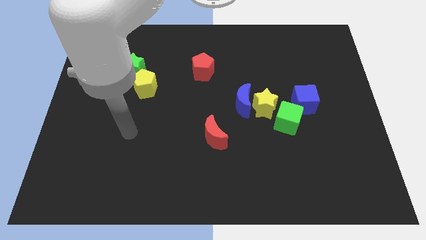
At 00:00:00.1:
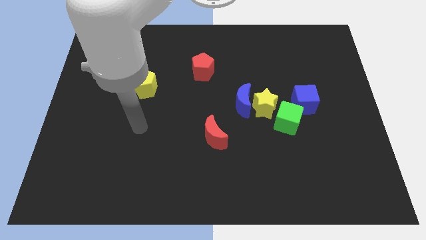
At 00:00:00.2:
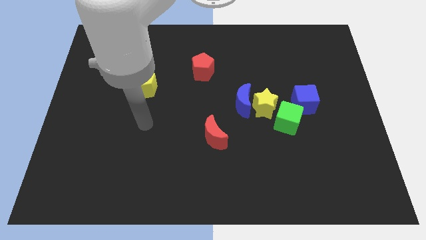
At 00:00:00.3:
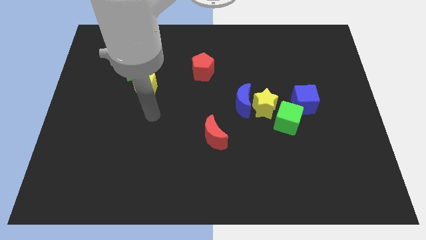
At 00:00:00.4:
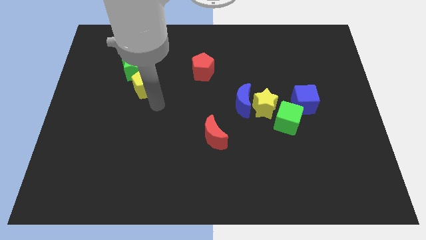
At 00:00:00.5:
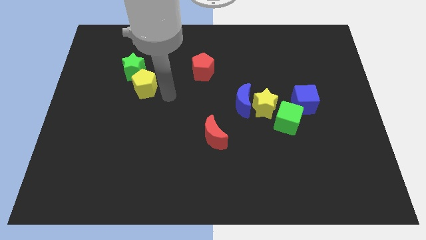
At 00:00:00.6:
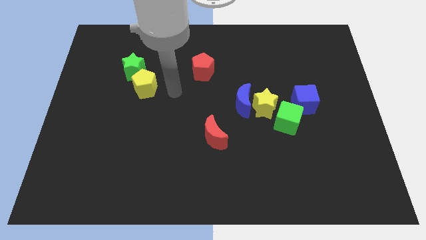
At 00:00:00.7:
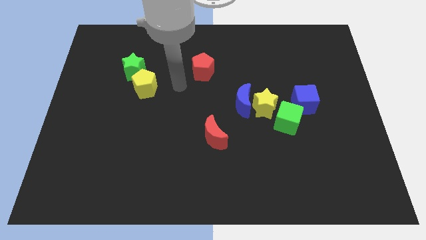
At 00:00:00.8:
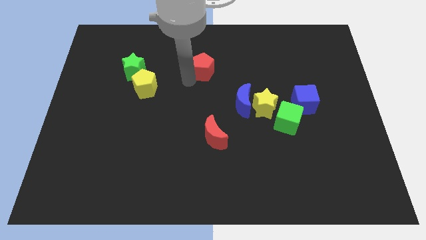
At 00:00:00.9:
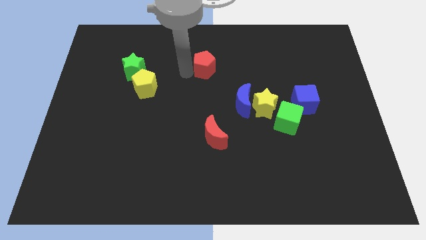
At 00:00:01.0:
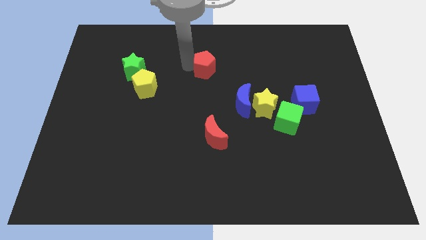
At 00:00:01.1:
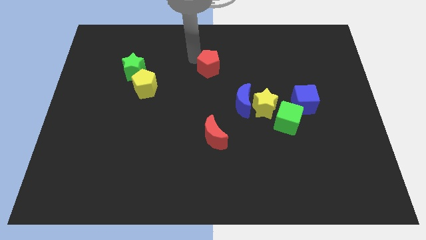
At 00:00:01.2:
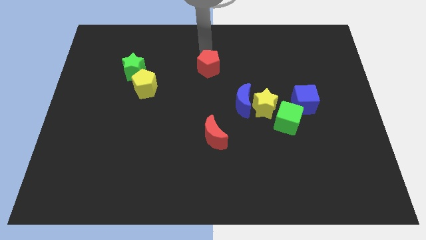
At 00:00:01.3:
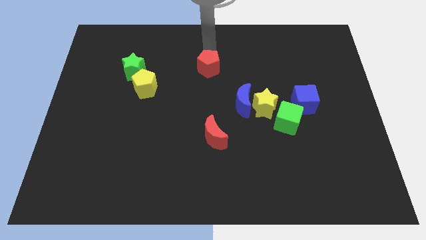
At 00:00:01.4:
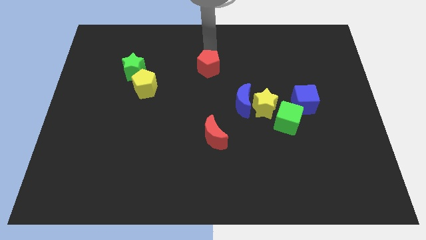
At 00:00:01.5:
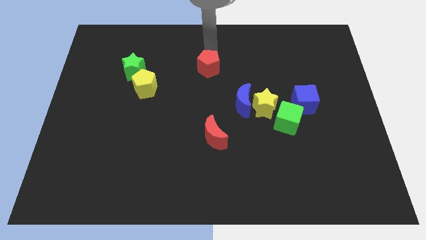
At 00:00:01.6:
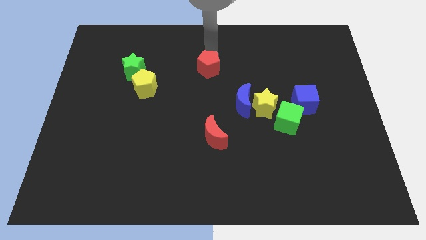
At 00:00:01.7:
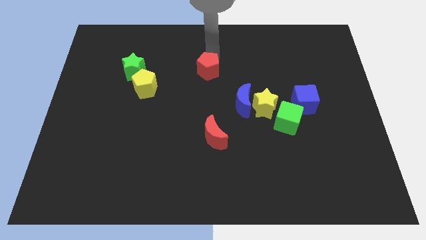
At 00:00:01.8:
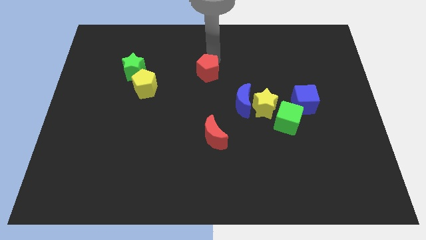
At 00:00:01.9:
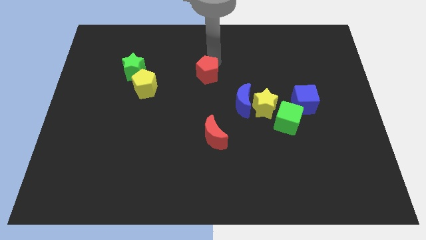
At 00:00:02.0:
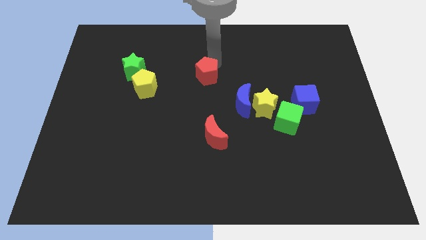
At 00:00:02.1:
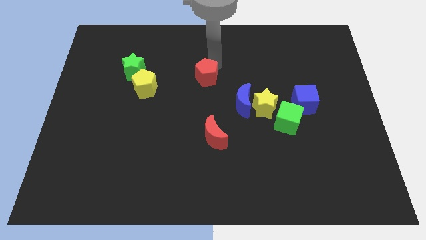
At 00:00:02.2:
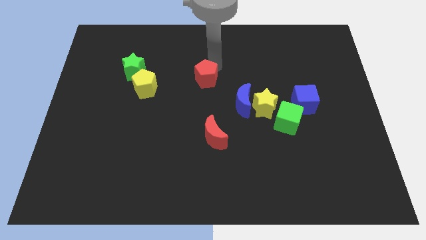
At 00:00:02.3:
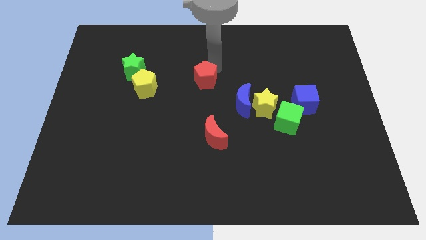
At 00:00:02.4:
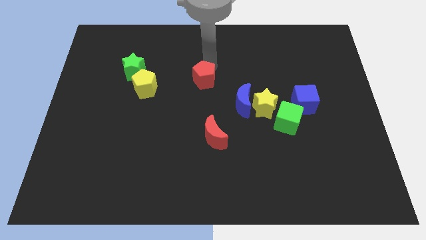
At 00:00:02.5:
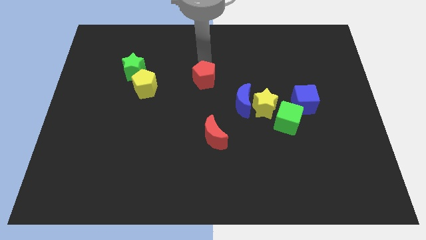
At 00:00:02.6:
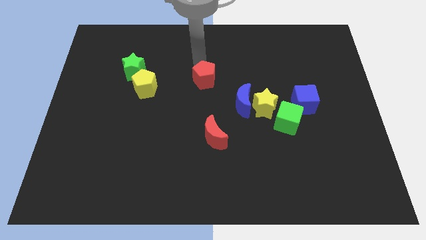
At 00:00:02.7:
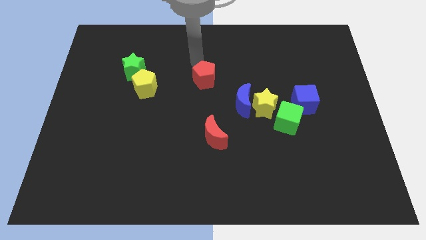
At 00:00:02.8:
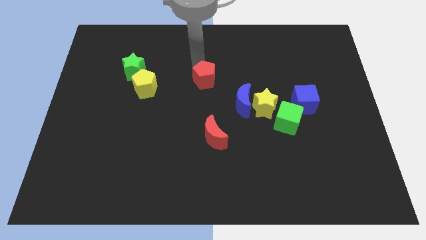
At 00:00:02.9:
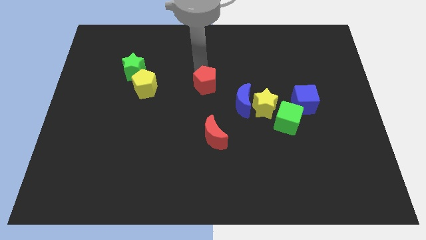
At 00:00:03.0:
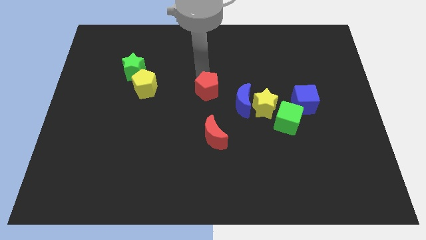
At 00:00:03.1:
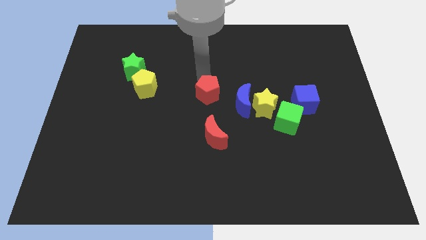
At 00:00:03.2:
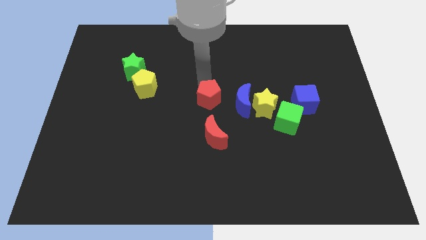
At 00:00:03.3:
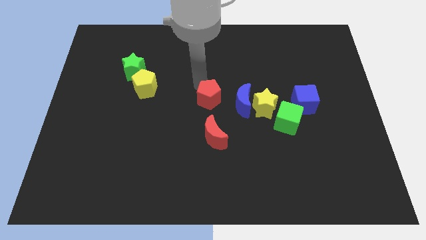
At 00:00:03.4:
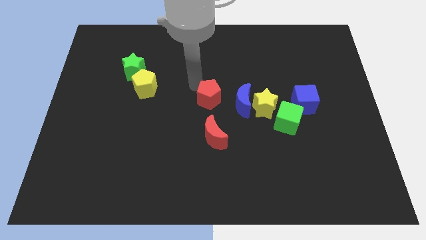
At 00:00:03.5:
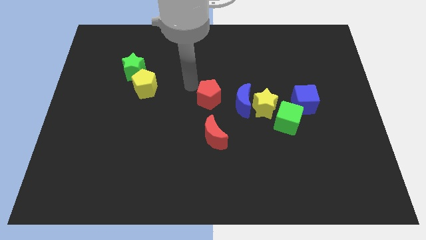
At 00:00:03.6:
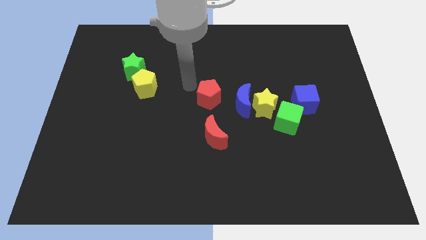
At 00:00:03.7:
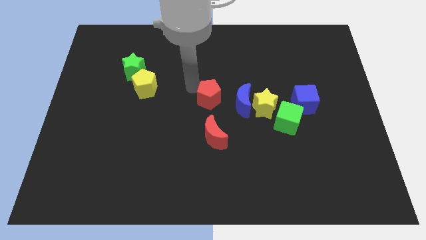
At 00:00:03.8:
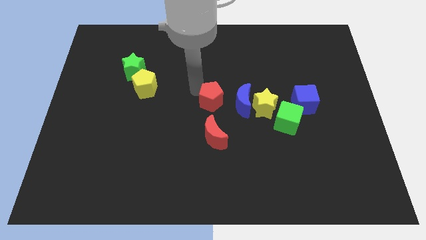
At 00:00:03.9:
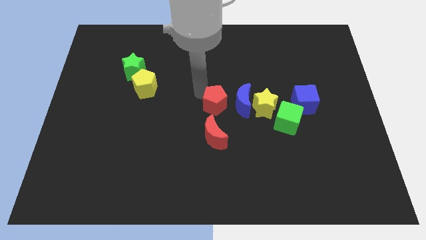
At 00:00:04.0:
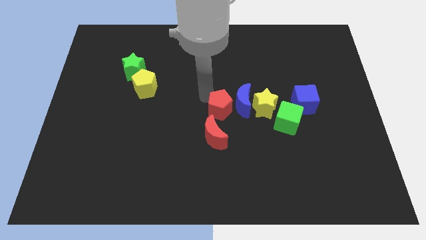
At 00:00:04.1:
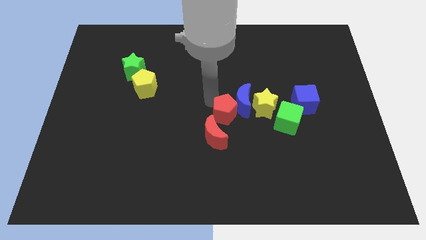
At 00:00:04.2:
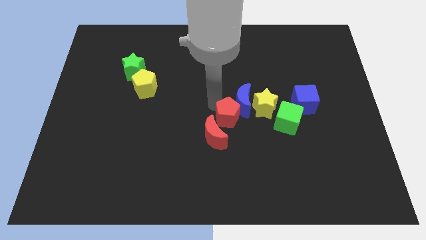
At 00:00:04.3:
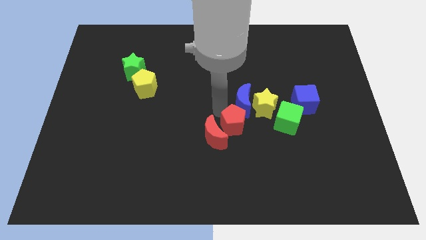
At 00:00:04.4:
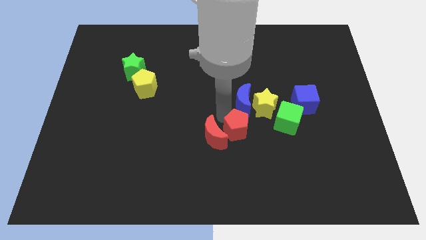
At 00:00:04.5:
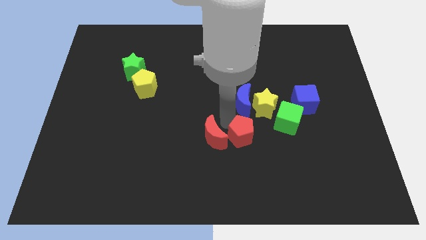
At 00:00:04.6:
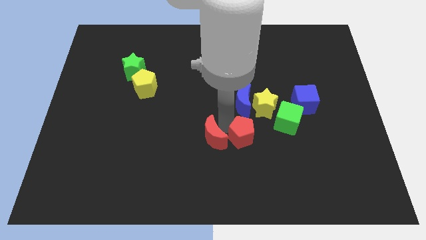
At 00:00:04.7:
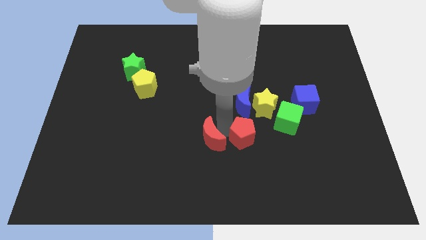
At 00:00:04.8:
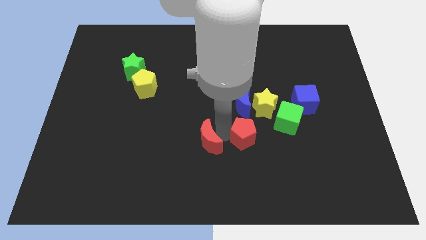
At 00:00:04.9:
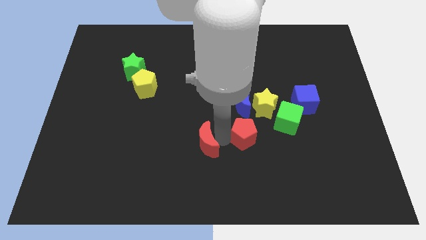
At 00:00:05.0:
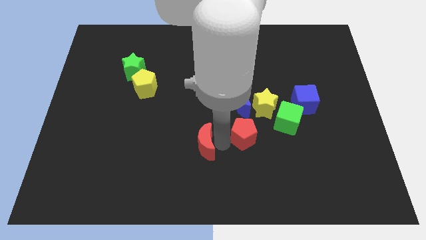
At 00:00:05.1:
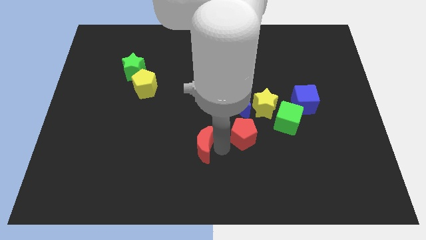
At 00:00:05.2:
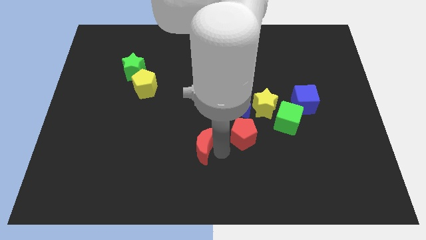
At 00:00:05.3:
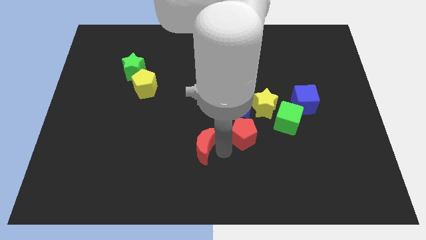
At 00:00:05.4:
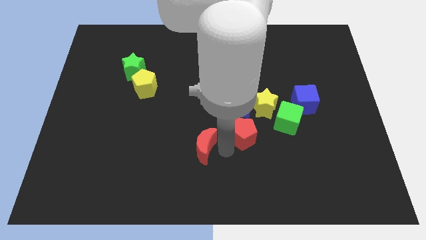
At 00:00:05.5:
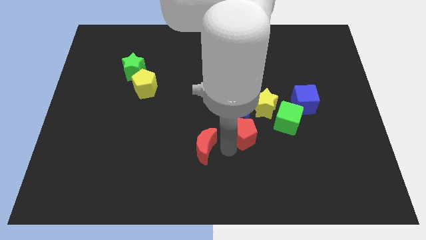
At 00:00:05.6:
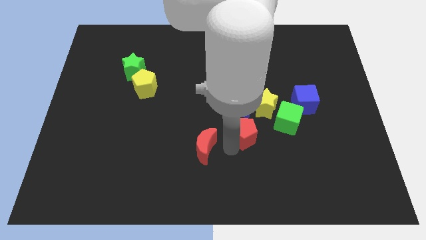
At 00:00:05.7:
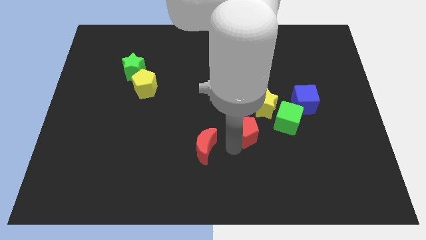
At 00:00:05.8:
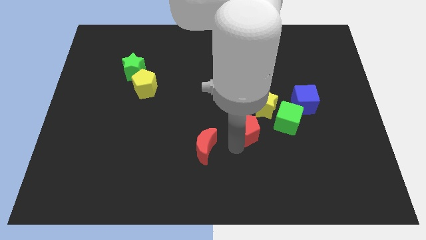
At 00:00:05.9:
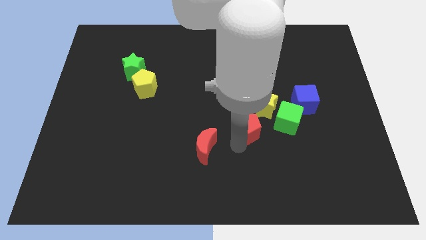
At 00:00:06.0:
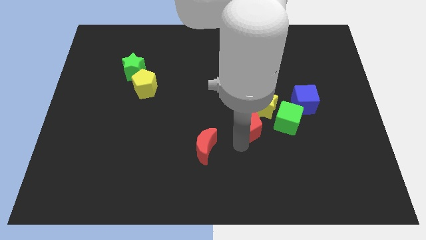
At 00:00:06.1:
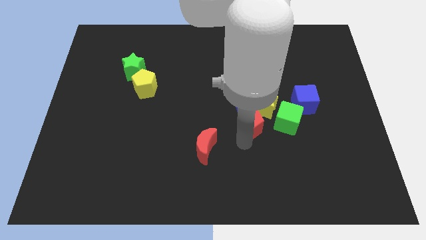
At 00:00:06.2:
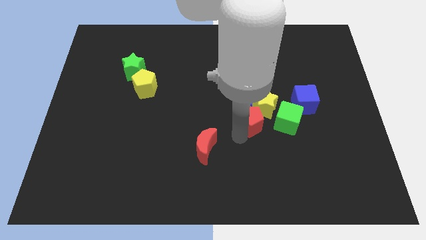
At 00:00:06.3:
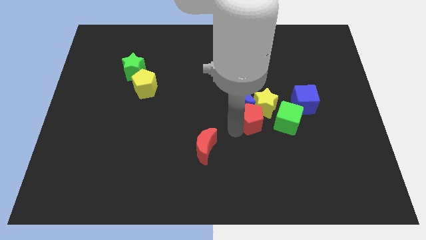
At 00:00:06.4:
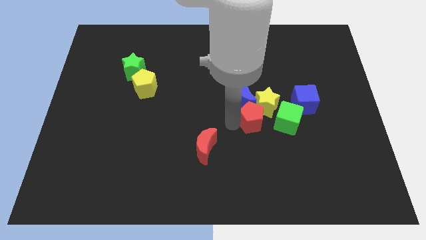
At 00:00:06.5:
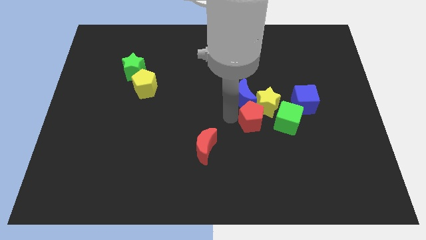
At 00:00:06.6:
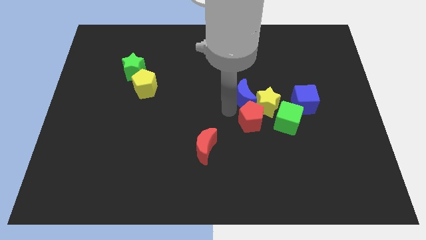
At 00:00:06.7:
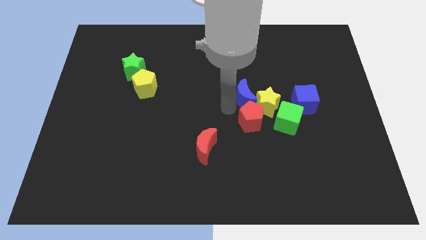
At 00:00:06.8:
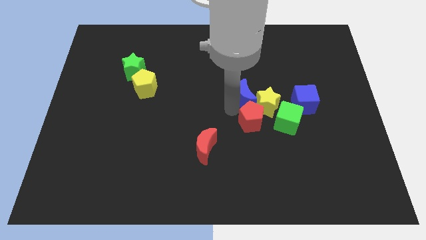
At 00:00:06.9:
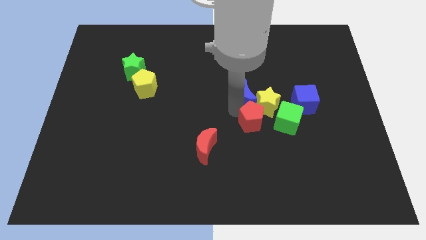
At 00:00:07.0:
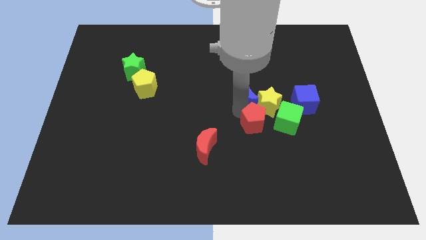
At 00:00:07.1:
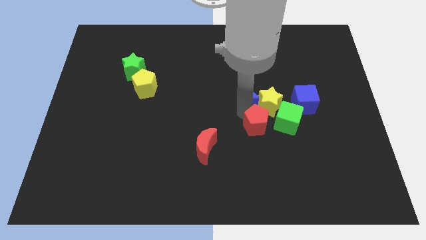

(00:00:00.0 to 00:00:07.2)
move the red pentagon diagonally downwards and right

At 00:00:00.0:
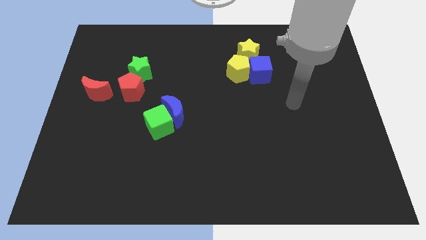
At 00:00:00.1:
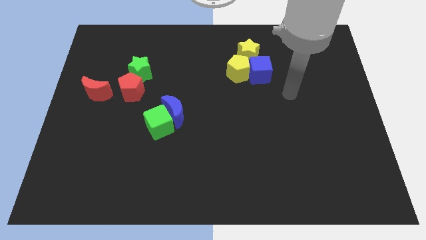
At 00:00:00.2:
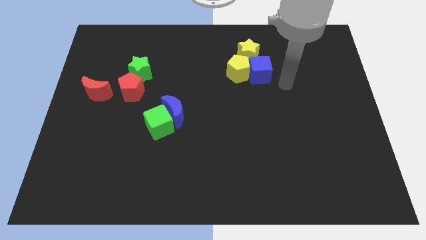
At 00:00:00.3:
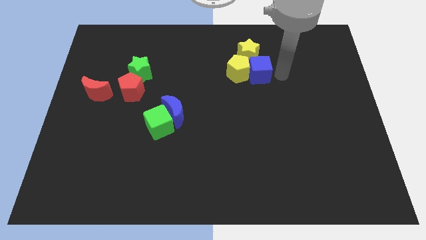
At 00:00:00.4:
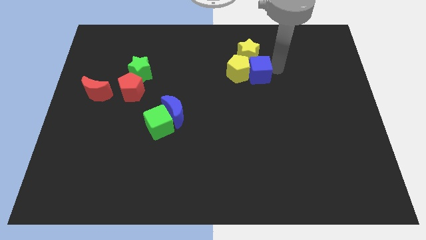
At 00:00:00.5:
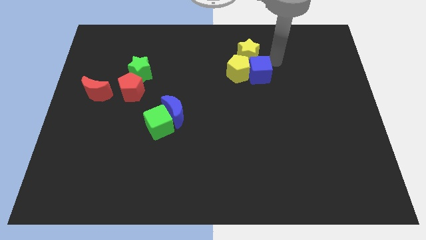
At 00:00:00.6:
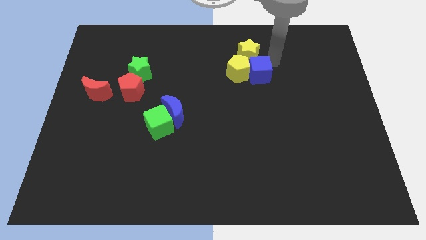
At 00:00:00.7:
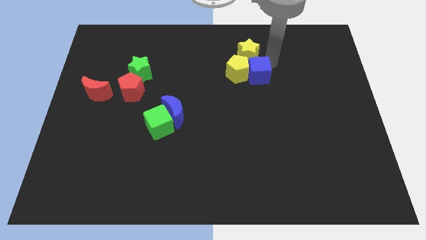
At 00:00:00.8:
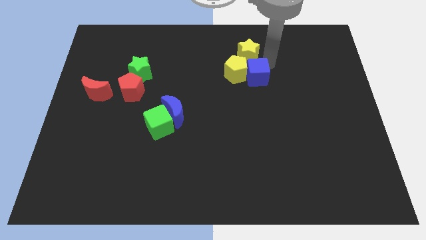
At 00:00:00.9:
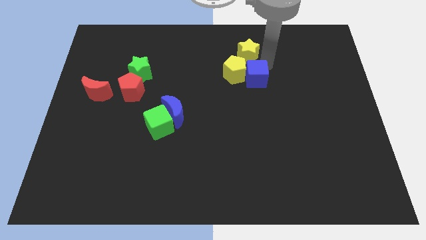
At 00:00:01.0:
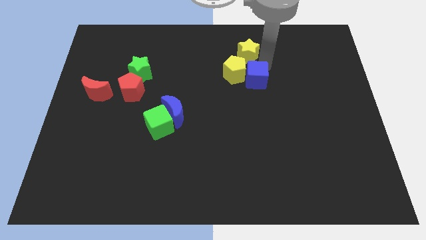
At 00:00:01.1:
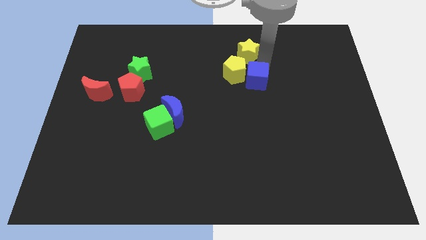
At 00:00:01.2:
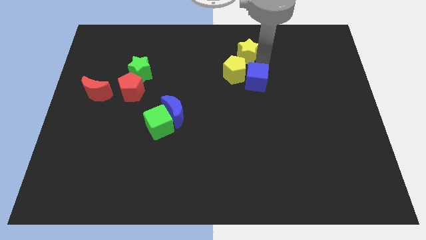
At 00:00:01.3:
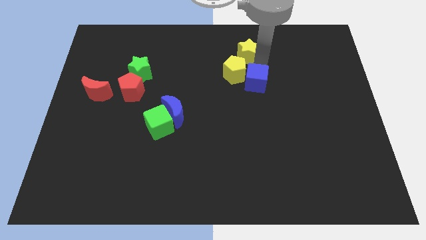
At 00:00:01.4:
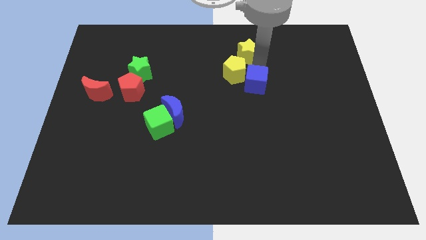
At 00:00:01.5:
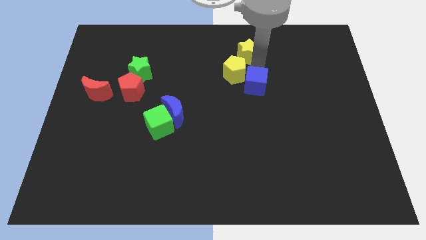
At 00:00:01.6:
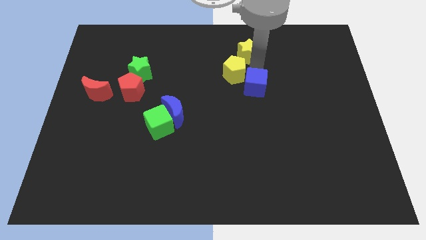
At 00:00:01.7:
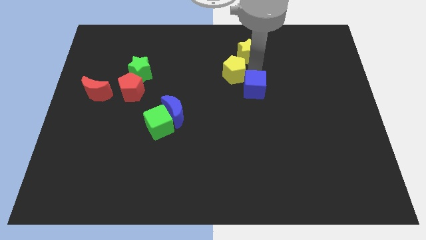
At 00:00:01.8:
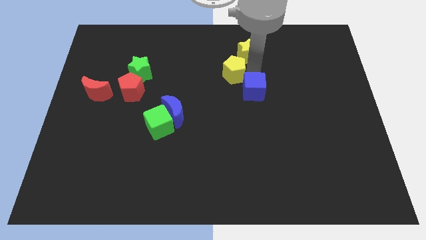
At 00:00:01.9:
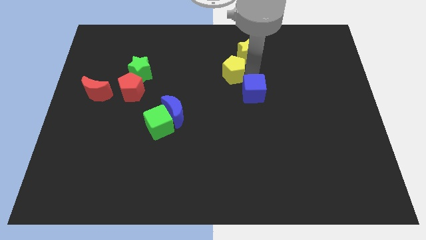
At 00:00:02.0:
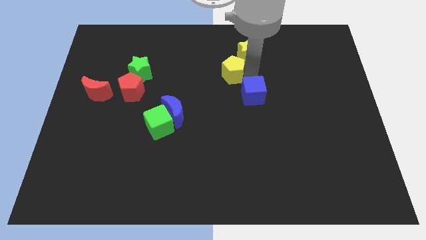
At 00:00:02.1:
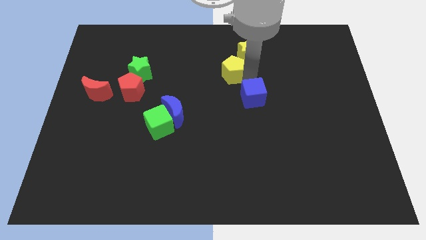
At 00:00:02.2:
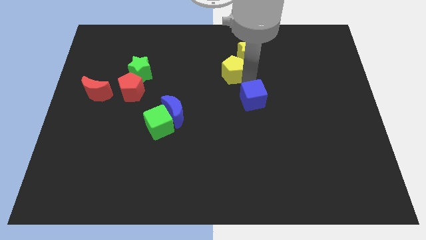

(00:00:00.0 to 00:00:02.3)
push the blue cube diagonally downwards and left a little bit
